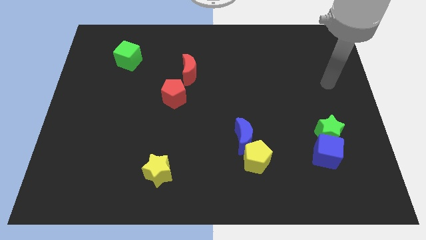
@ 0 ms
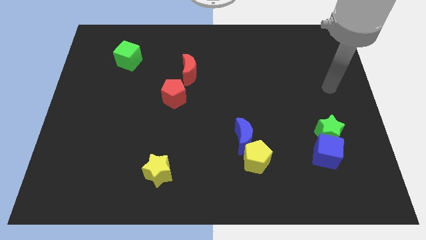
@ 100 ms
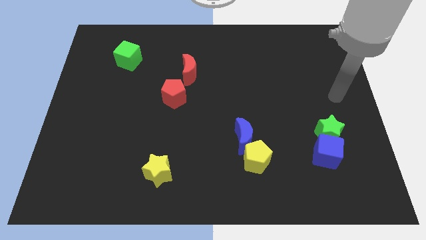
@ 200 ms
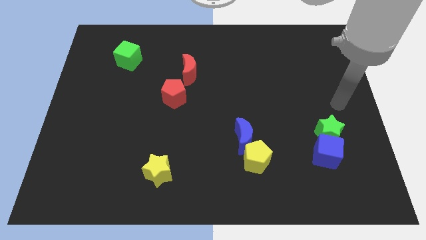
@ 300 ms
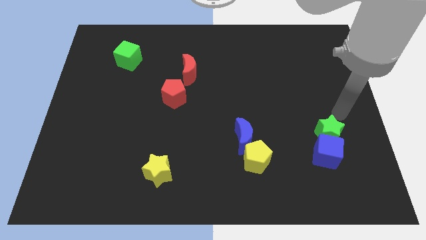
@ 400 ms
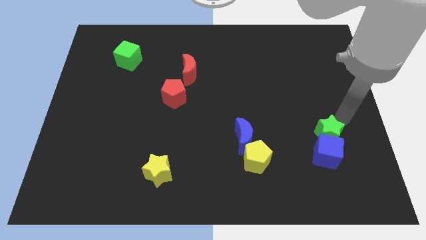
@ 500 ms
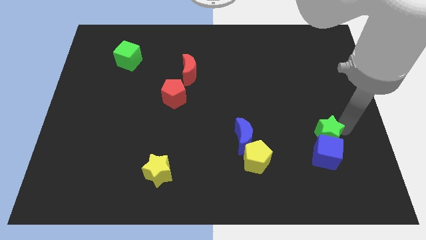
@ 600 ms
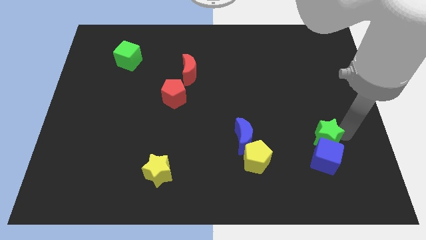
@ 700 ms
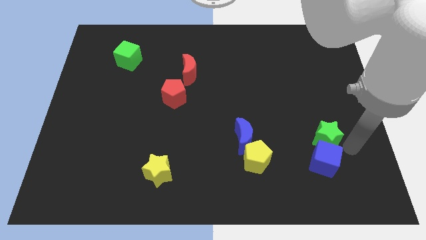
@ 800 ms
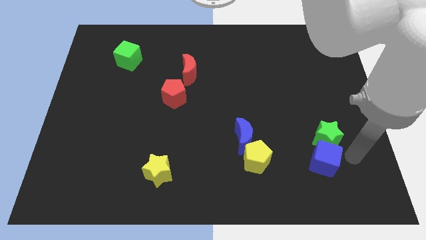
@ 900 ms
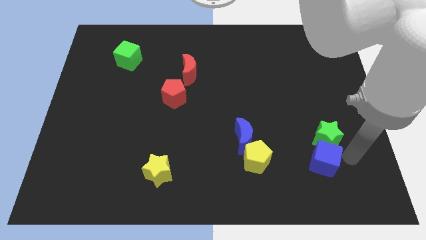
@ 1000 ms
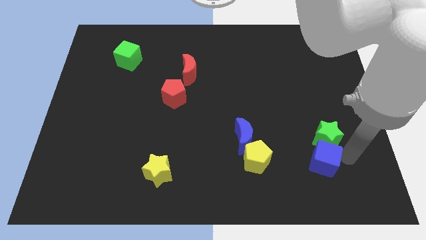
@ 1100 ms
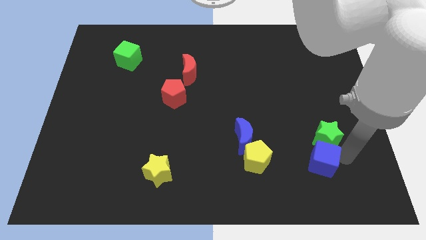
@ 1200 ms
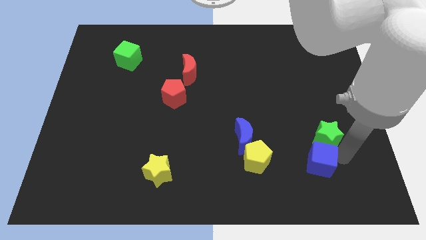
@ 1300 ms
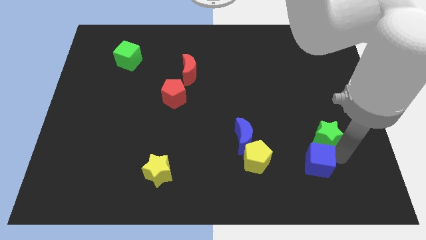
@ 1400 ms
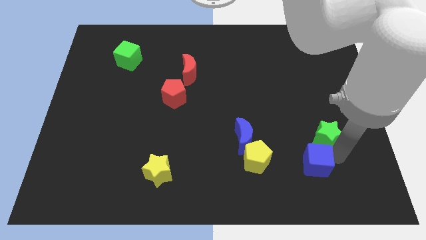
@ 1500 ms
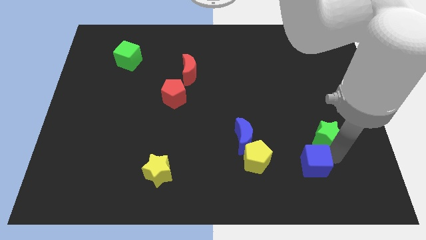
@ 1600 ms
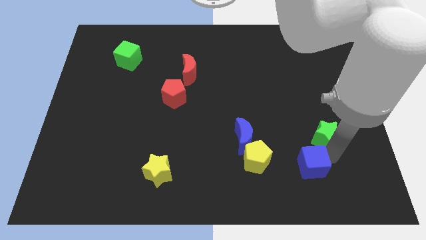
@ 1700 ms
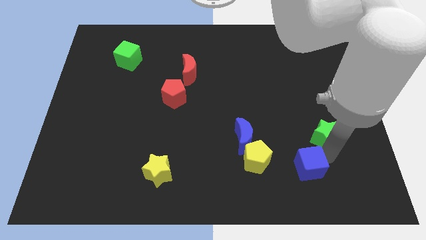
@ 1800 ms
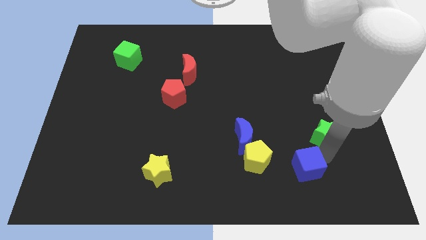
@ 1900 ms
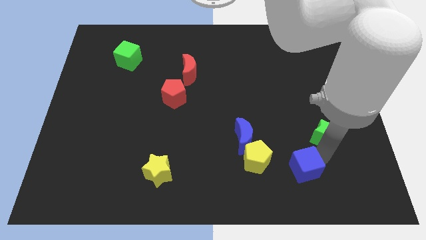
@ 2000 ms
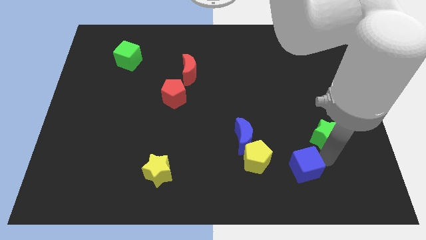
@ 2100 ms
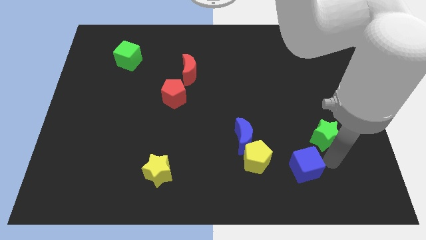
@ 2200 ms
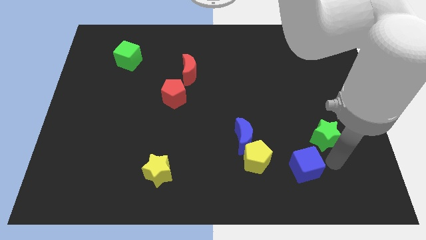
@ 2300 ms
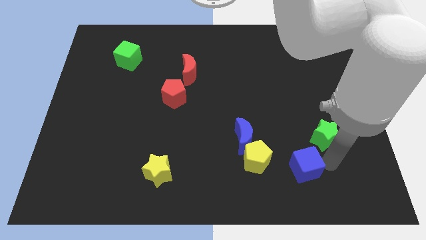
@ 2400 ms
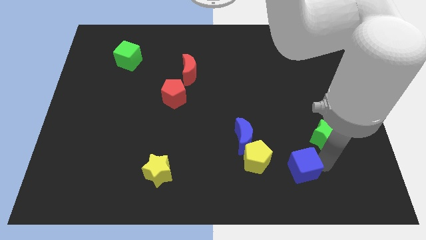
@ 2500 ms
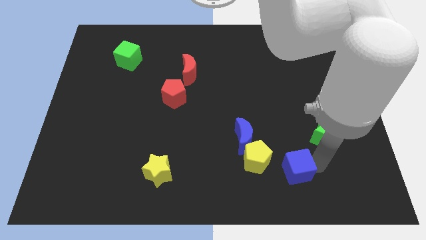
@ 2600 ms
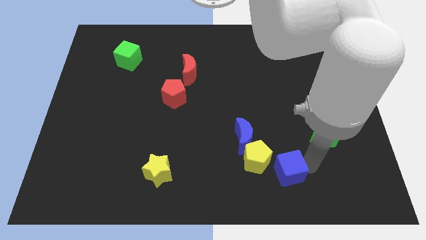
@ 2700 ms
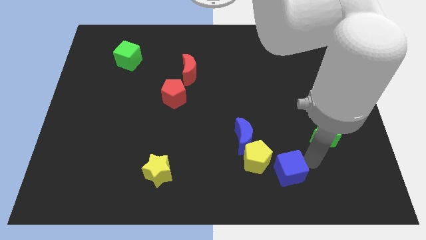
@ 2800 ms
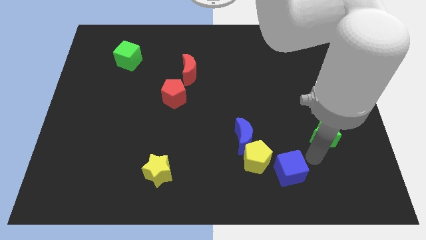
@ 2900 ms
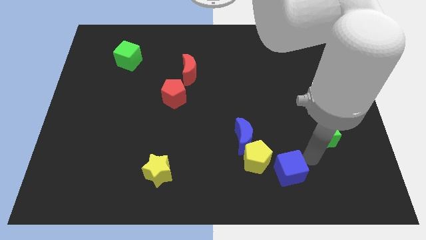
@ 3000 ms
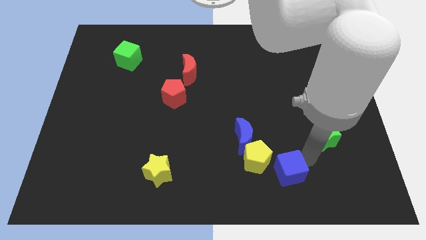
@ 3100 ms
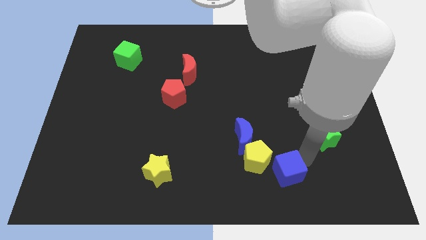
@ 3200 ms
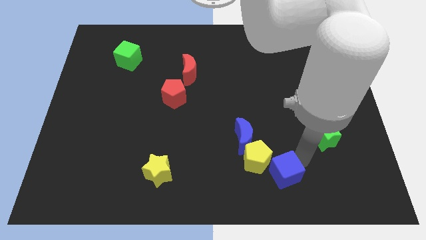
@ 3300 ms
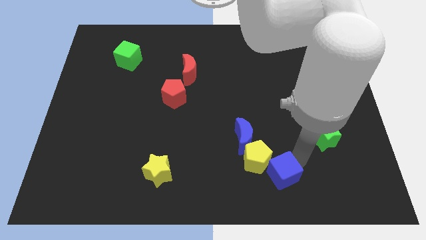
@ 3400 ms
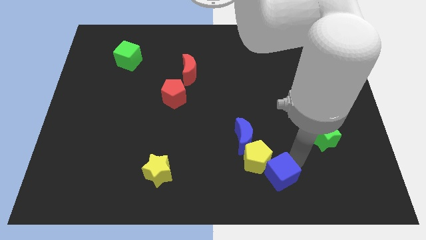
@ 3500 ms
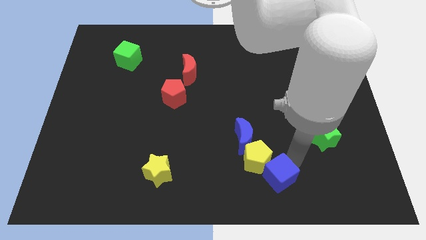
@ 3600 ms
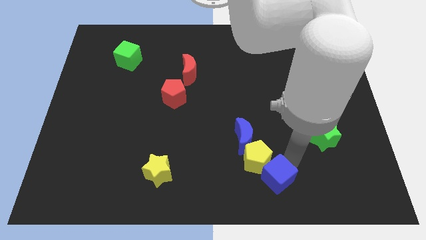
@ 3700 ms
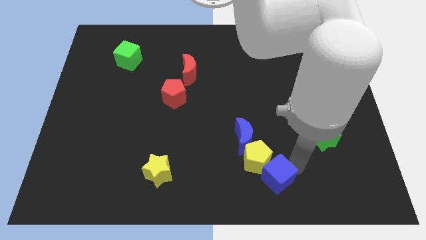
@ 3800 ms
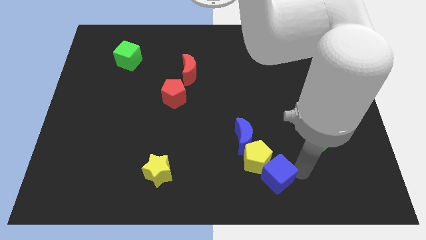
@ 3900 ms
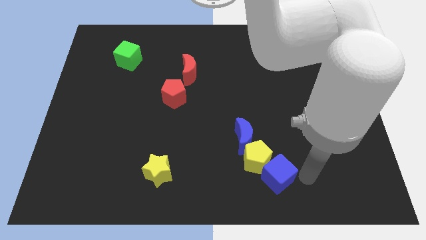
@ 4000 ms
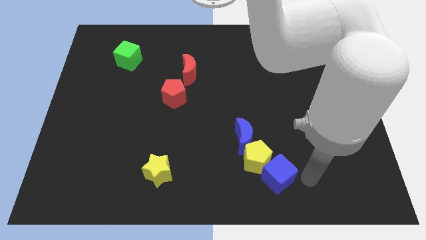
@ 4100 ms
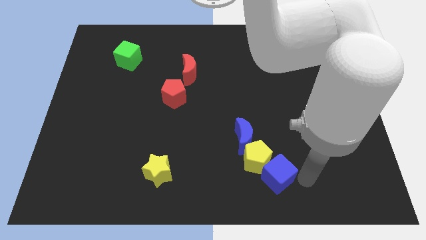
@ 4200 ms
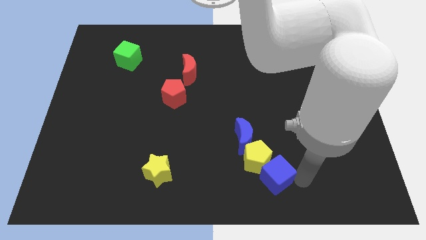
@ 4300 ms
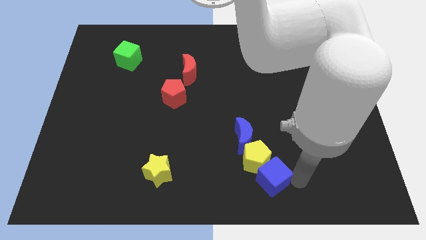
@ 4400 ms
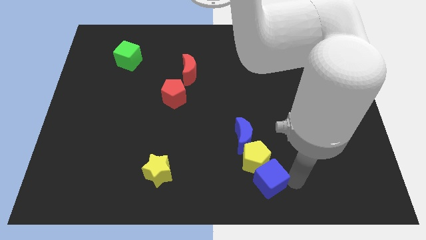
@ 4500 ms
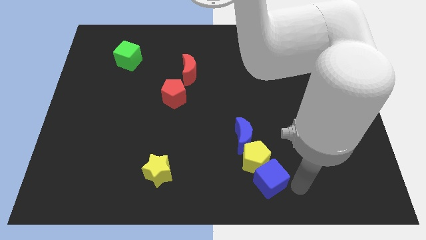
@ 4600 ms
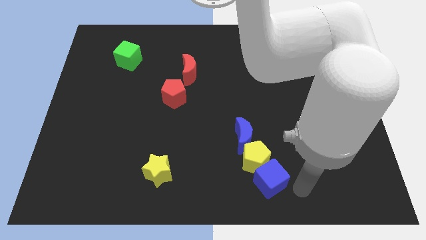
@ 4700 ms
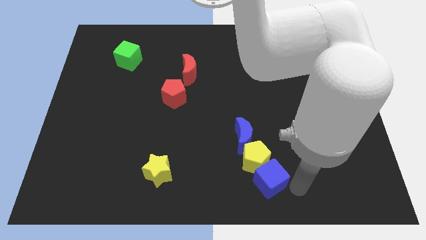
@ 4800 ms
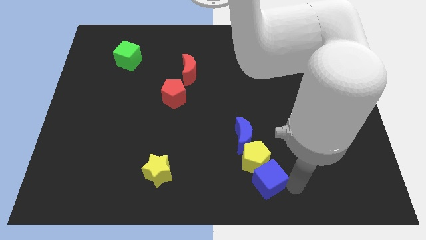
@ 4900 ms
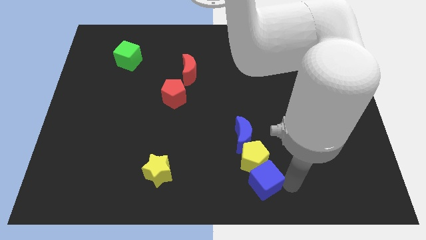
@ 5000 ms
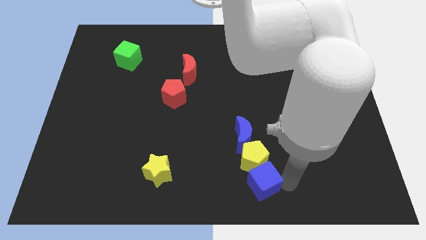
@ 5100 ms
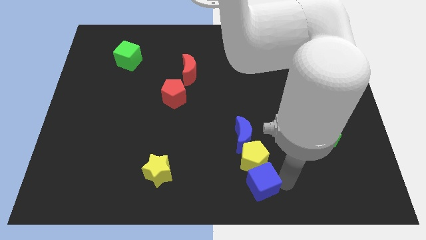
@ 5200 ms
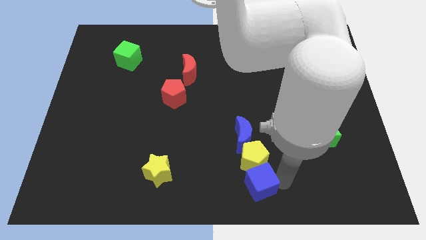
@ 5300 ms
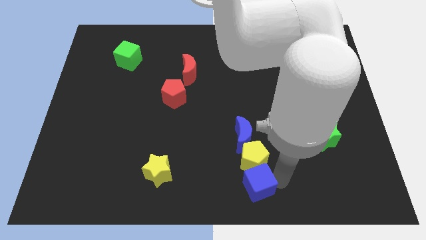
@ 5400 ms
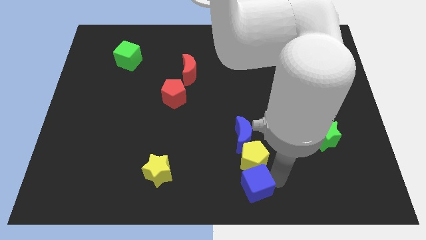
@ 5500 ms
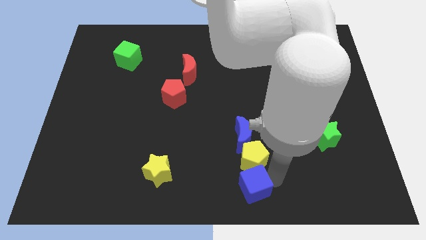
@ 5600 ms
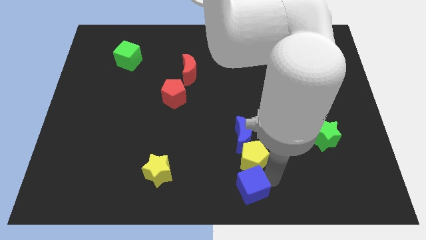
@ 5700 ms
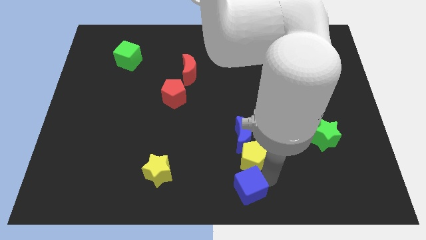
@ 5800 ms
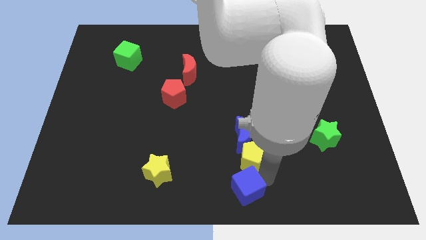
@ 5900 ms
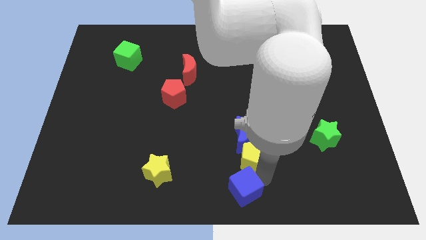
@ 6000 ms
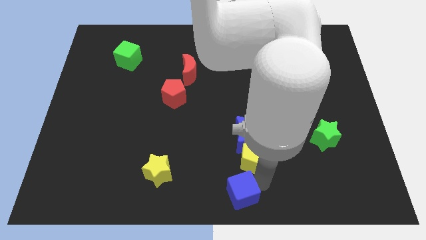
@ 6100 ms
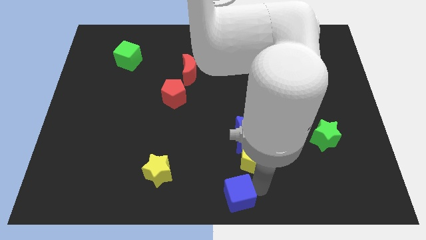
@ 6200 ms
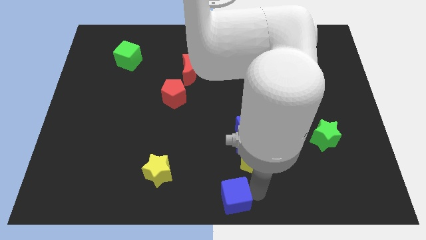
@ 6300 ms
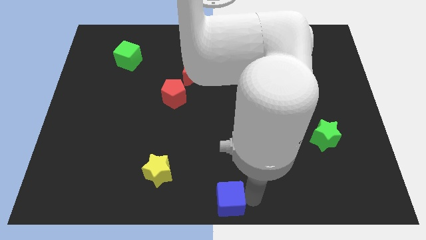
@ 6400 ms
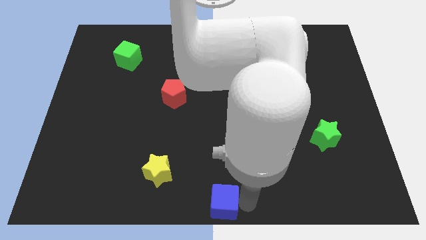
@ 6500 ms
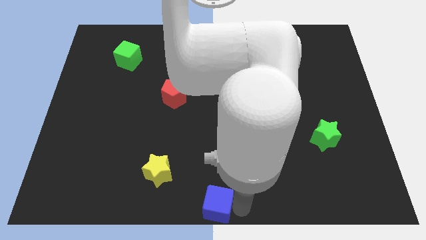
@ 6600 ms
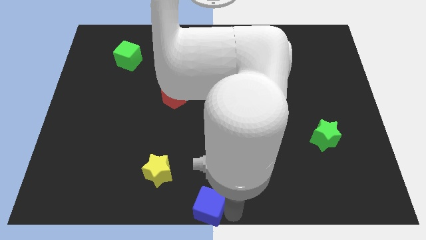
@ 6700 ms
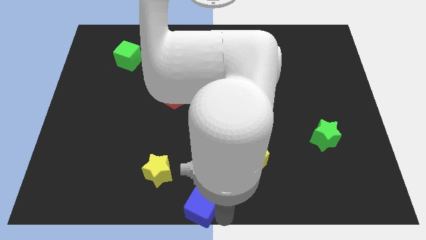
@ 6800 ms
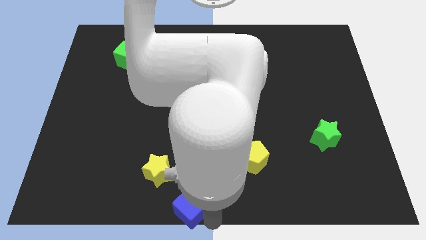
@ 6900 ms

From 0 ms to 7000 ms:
slide the blue cube to the left

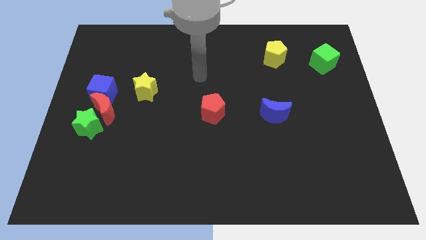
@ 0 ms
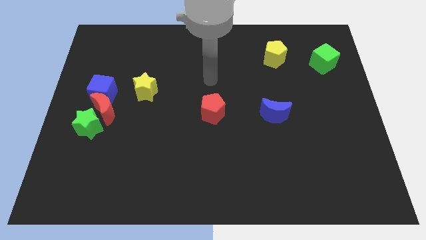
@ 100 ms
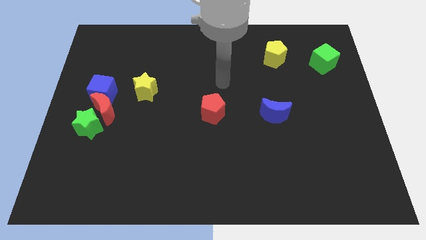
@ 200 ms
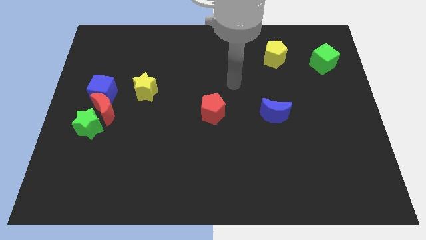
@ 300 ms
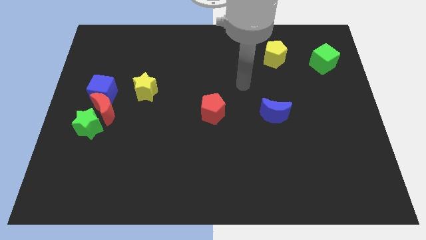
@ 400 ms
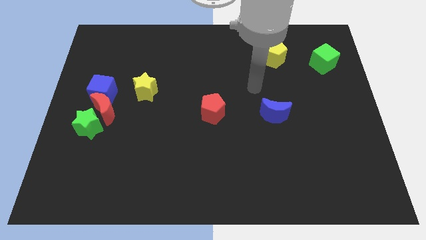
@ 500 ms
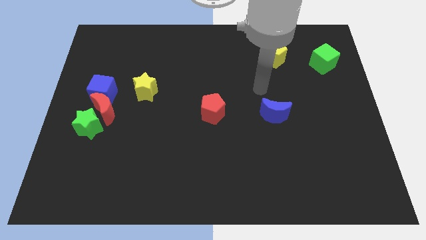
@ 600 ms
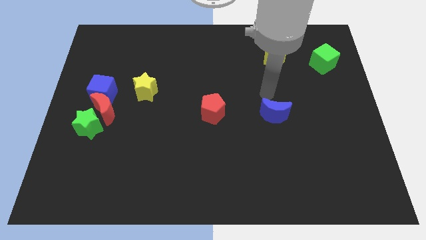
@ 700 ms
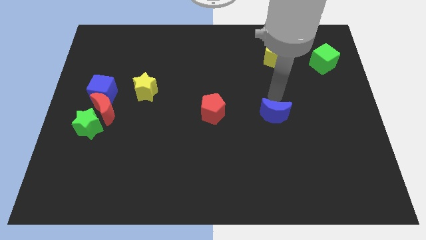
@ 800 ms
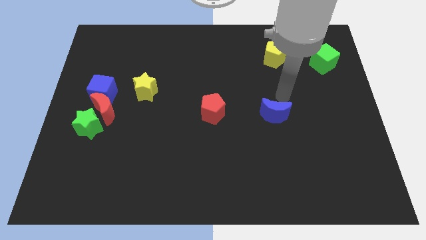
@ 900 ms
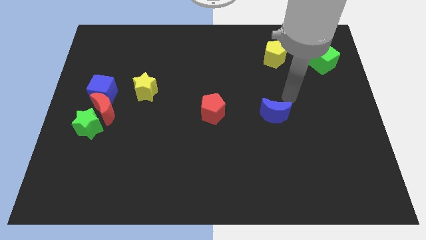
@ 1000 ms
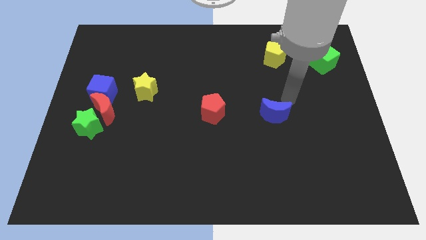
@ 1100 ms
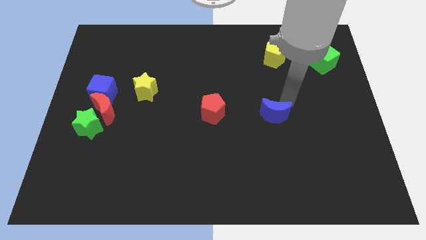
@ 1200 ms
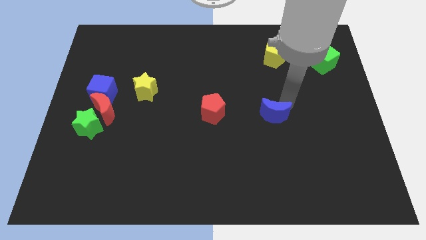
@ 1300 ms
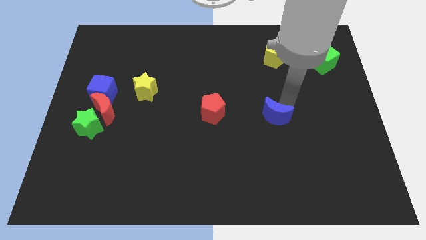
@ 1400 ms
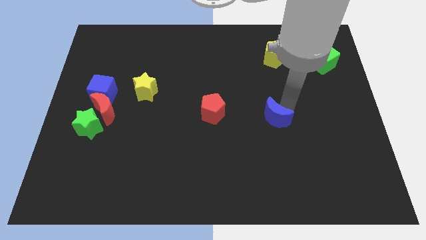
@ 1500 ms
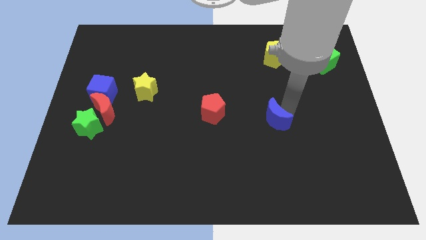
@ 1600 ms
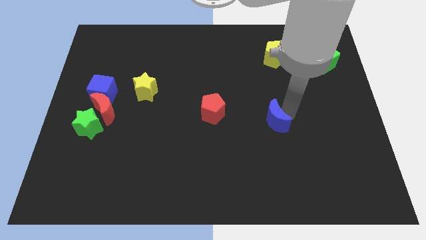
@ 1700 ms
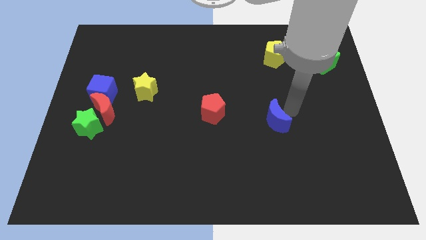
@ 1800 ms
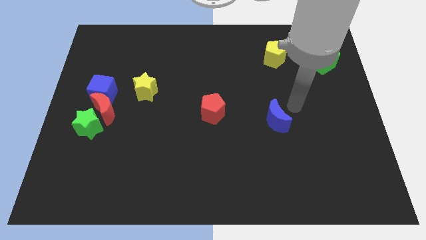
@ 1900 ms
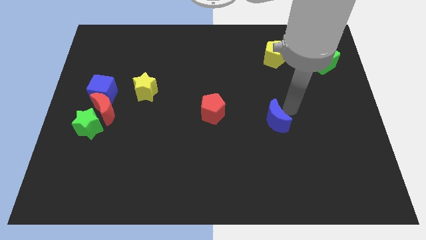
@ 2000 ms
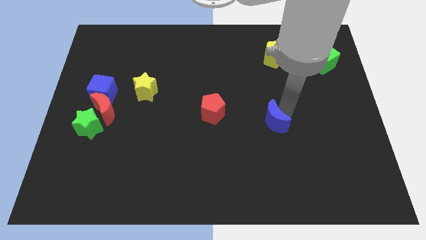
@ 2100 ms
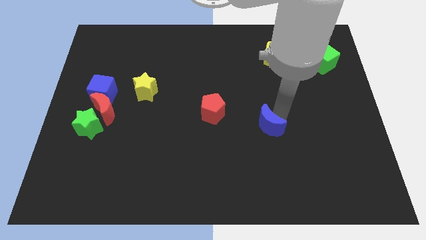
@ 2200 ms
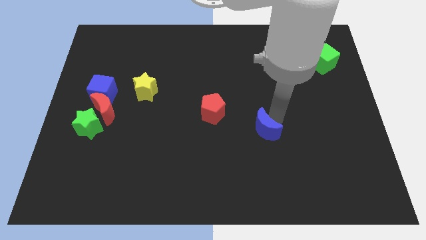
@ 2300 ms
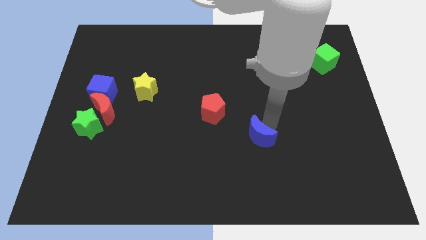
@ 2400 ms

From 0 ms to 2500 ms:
push the blue moon a little downwards and left diagonally
